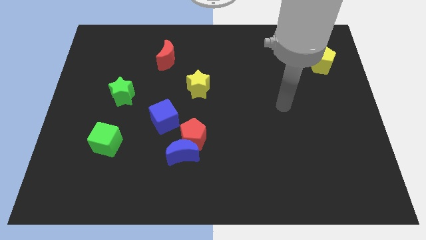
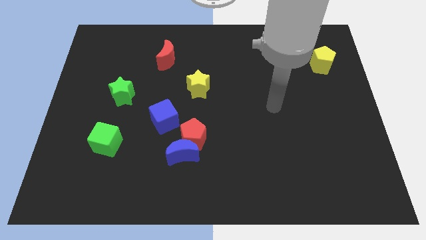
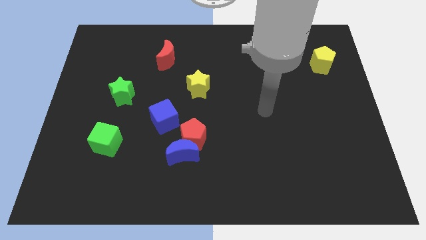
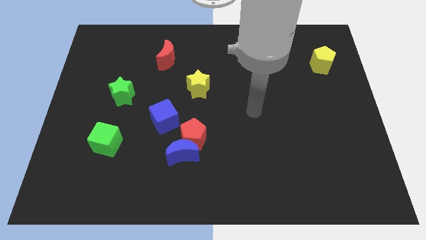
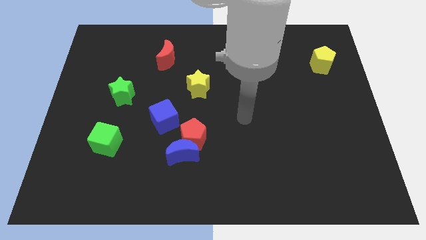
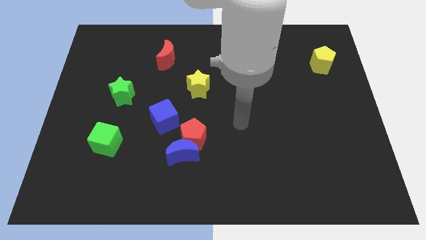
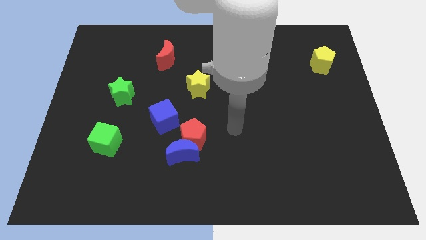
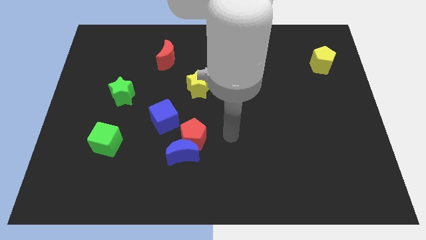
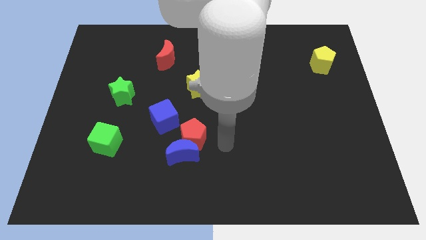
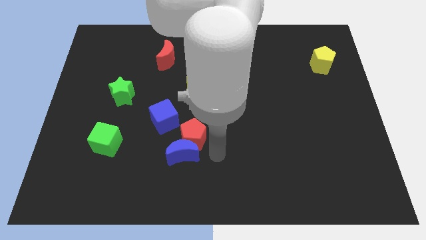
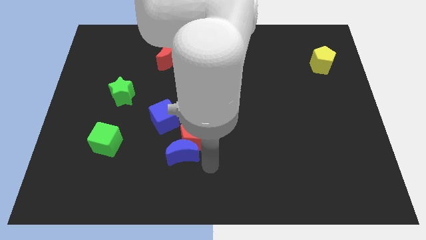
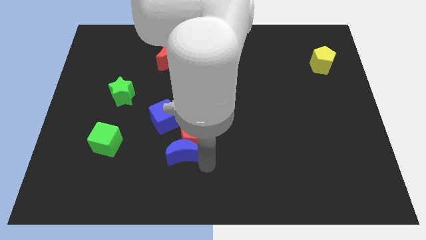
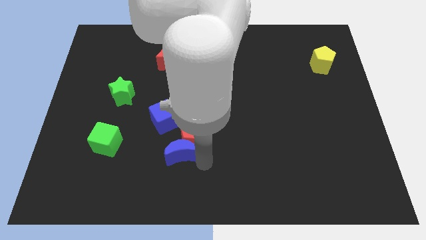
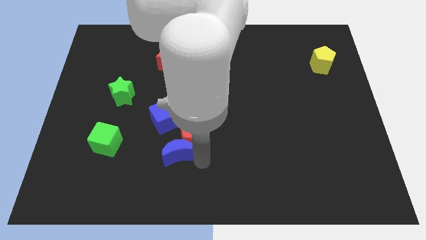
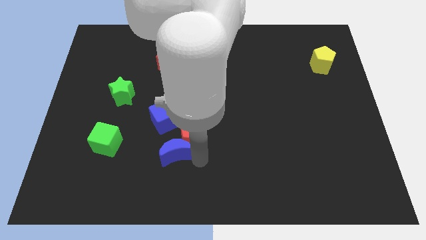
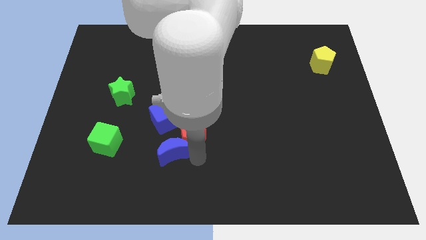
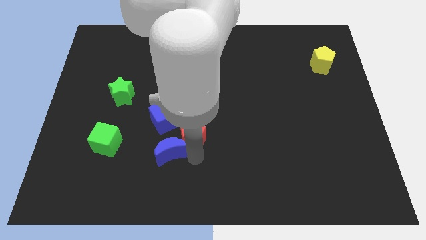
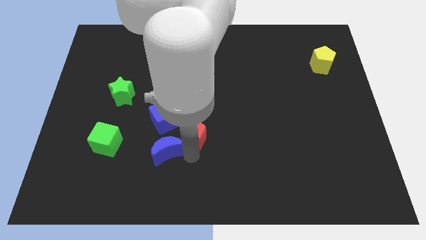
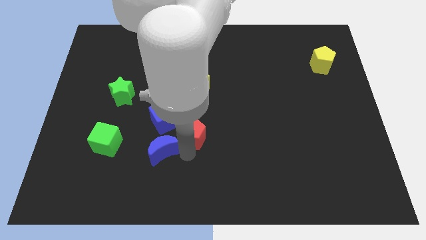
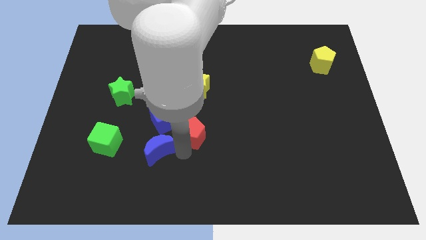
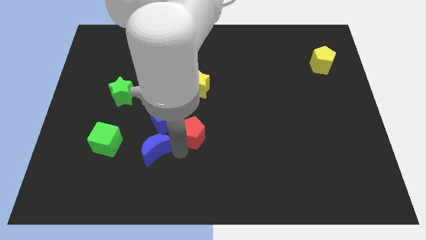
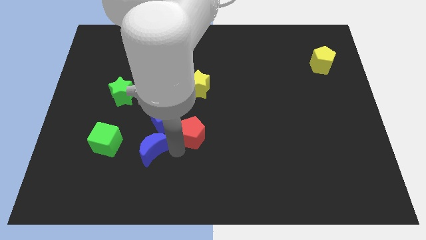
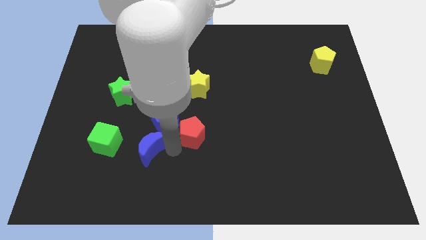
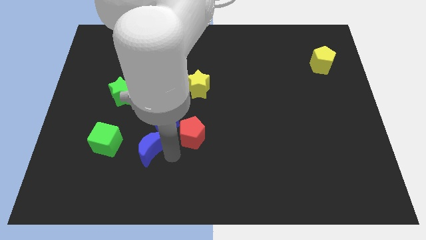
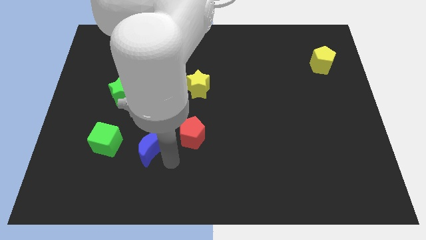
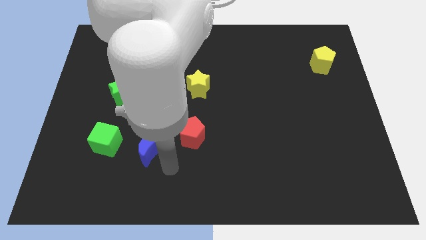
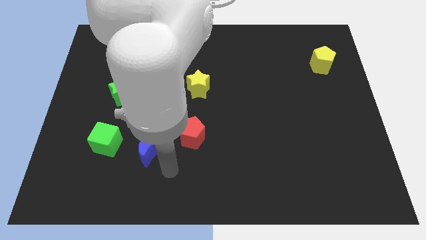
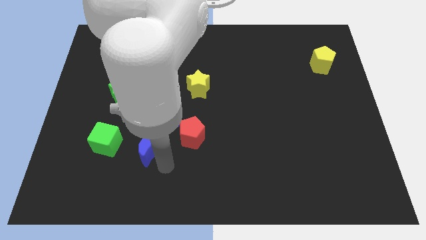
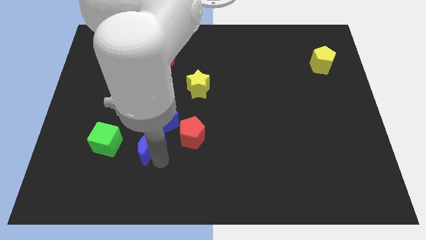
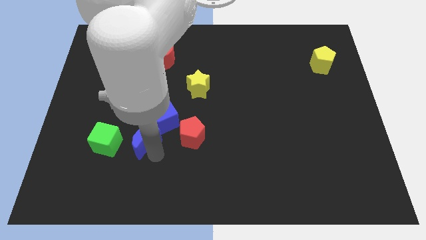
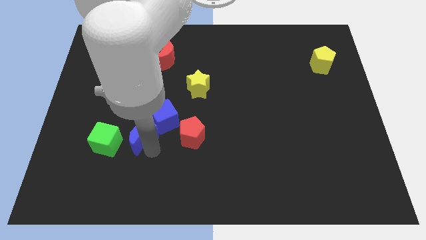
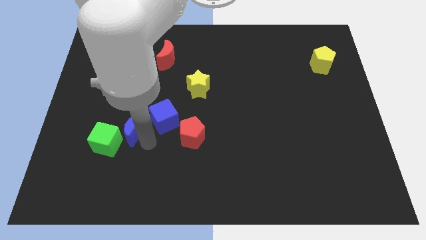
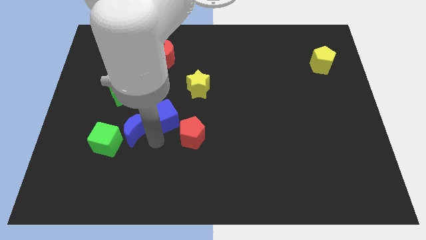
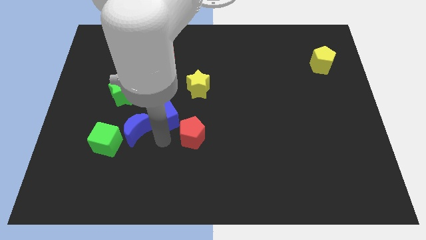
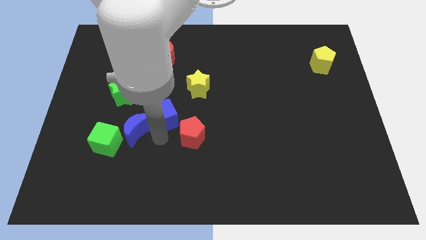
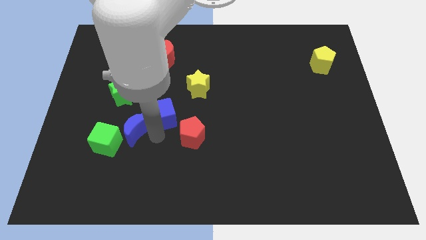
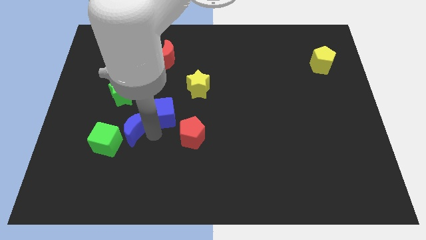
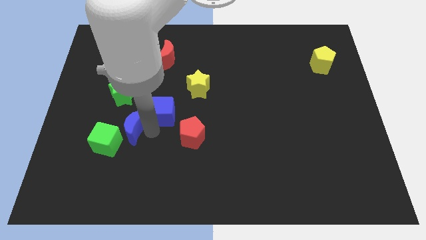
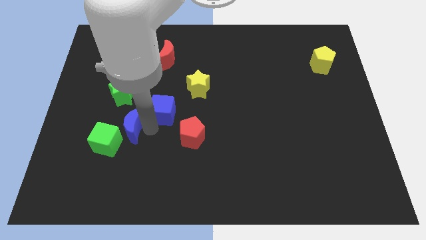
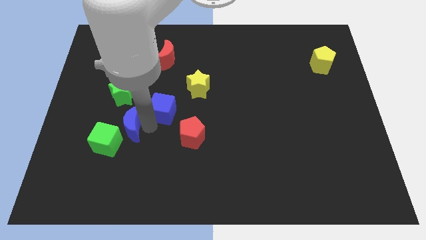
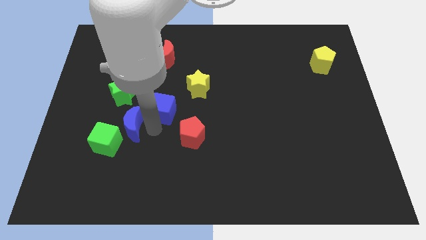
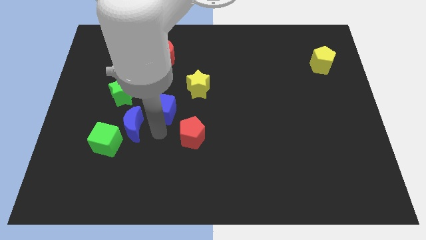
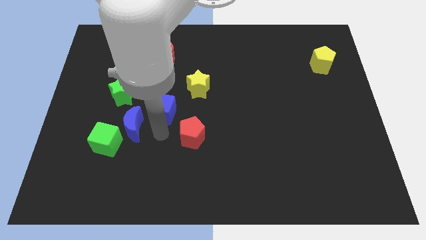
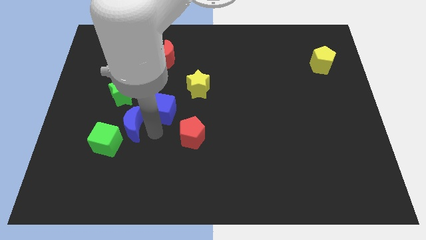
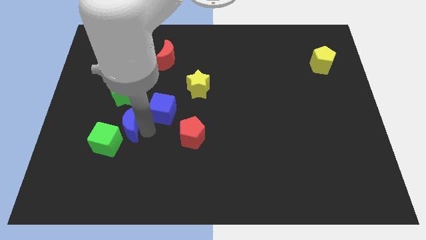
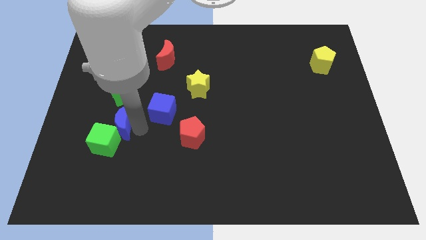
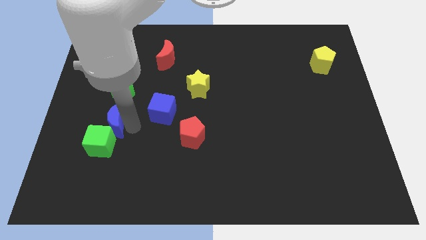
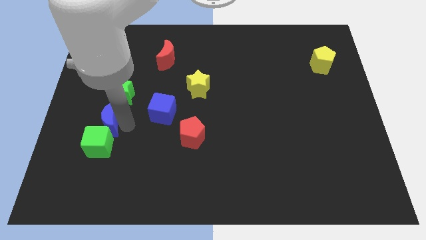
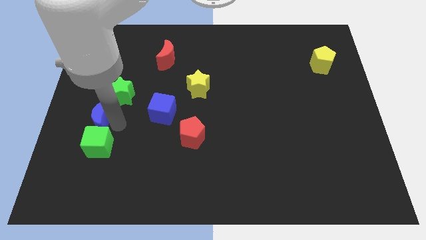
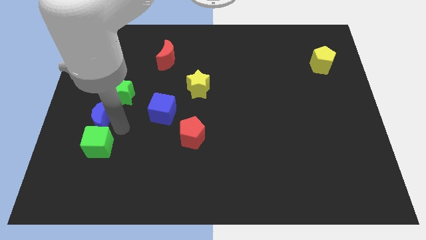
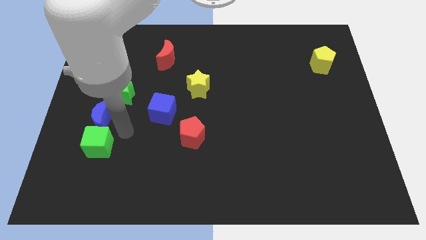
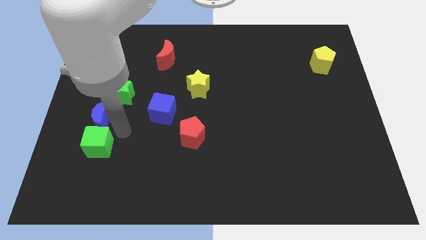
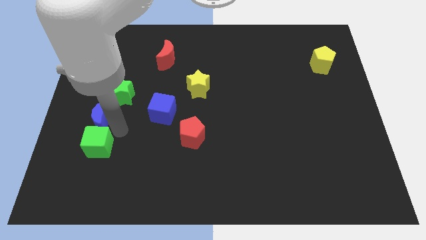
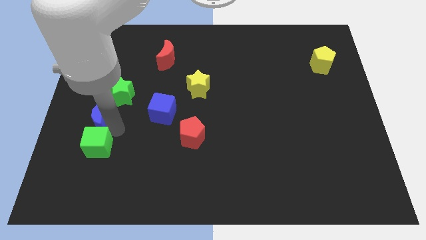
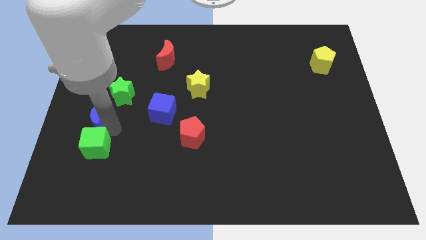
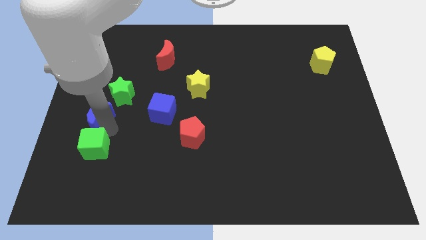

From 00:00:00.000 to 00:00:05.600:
push the blue moon to the left side

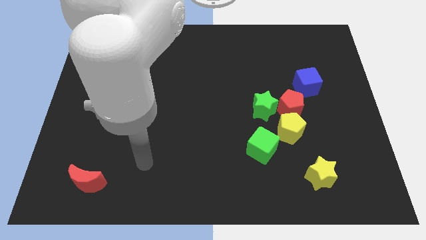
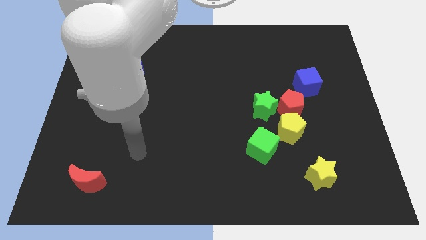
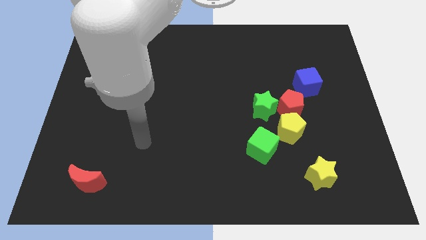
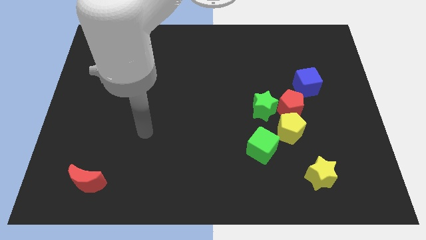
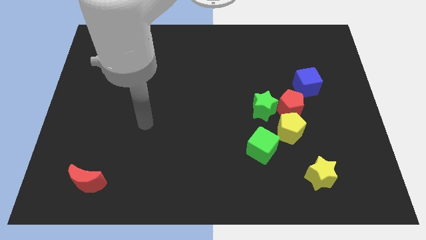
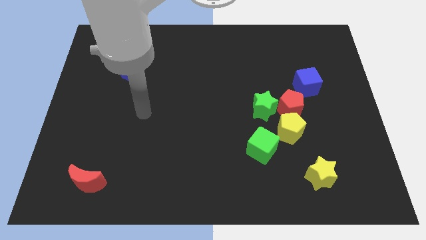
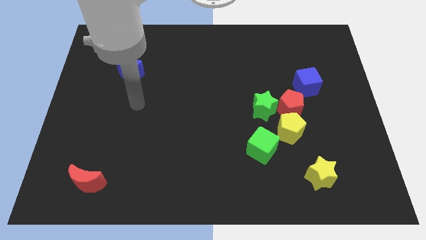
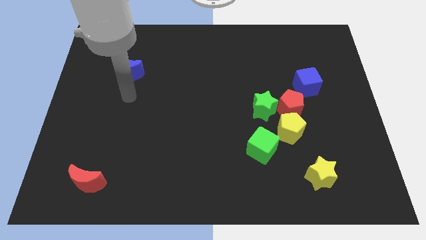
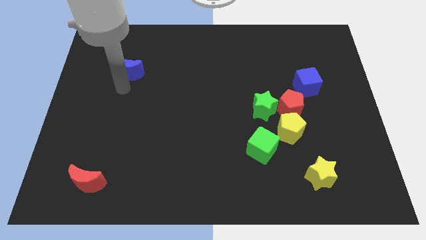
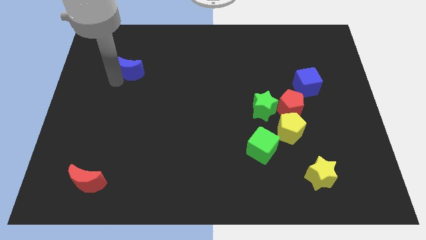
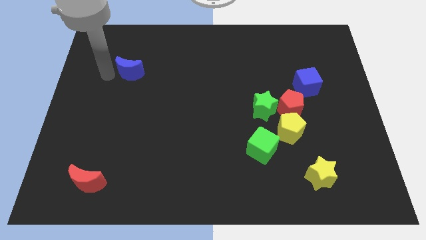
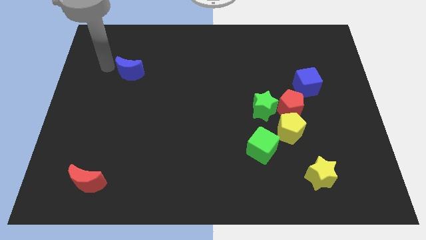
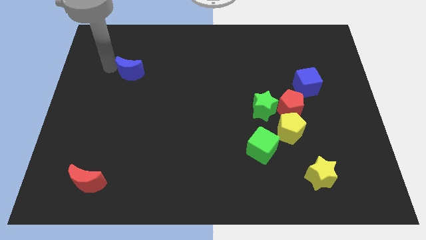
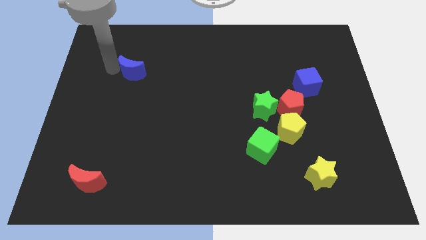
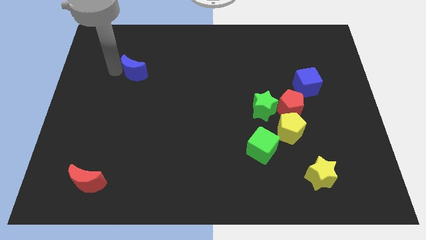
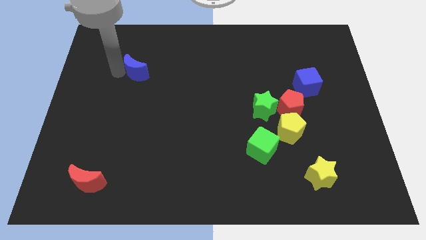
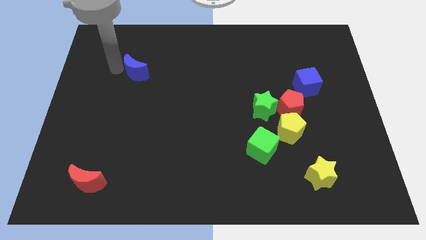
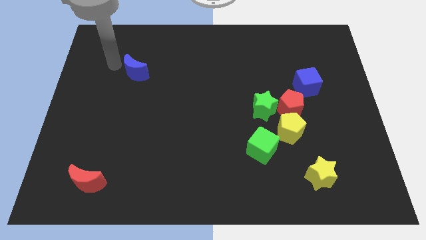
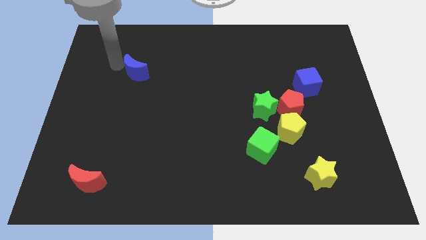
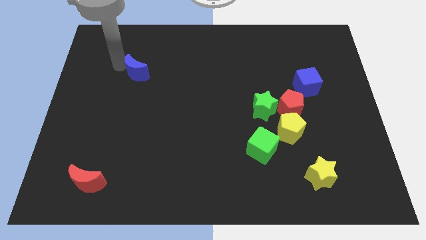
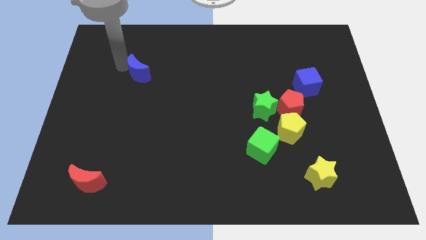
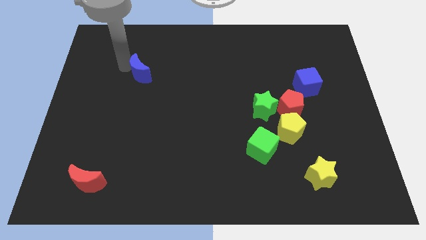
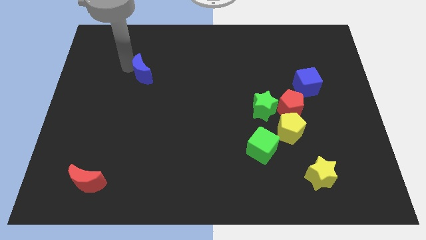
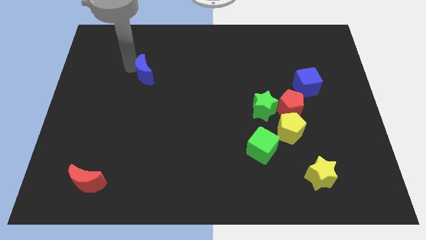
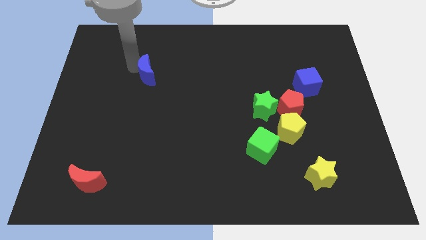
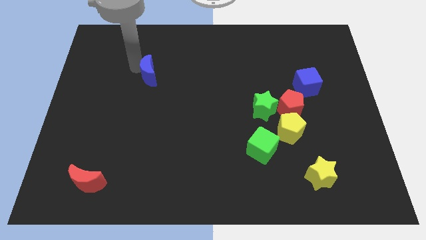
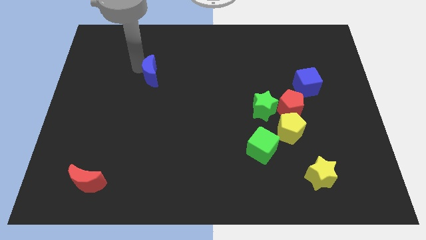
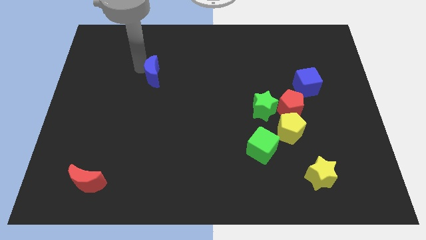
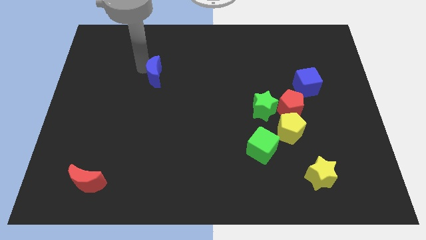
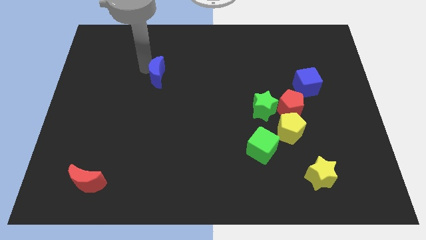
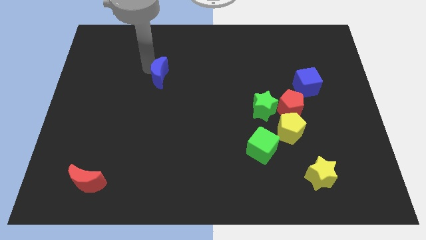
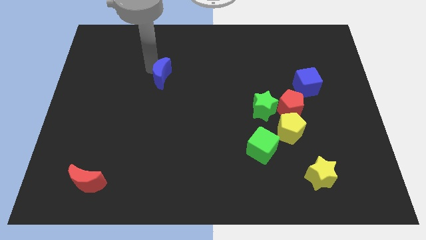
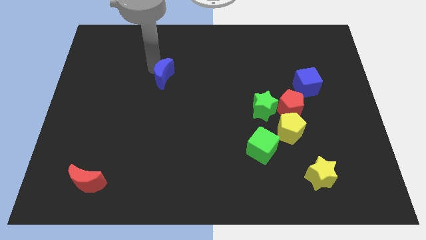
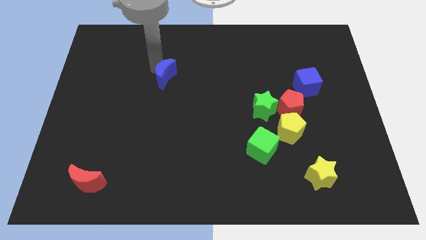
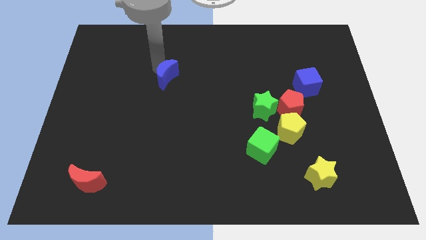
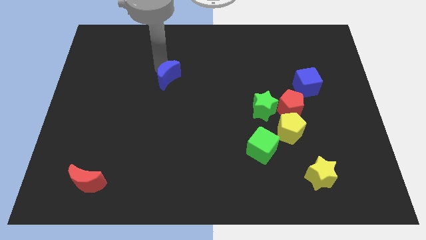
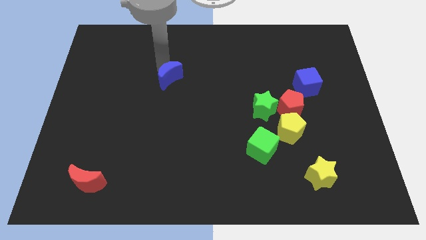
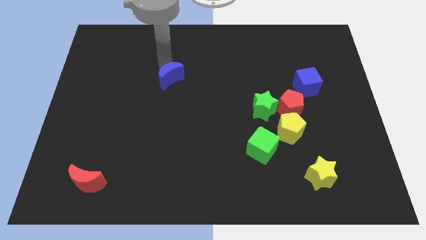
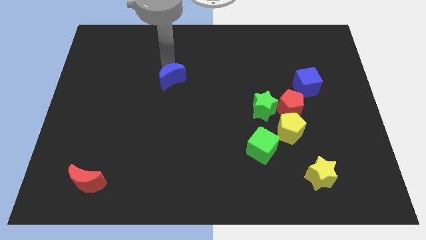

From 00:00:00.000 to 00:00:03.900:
put the blue moon to the middle of the board
